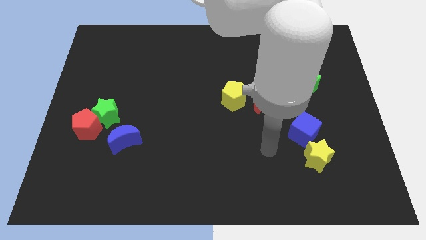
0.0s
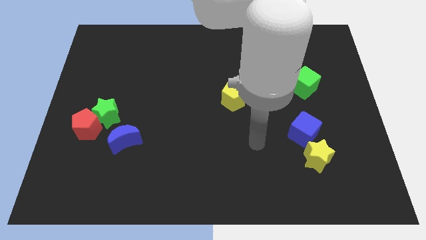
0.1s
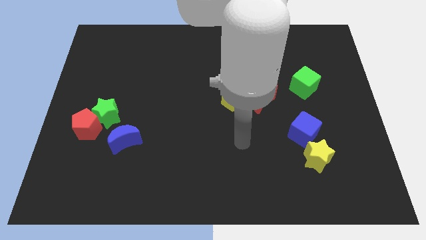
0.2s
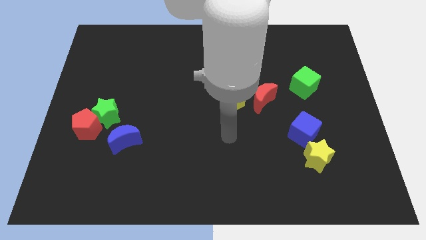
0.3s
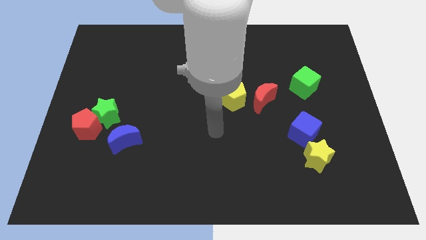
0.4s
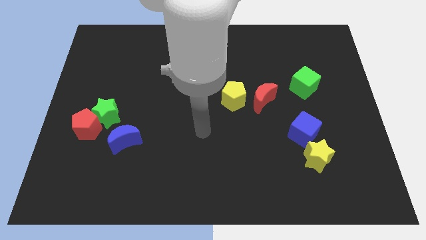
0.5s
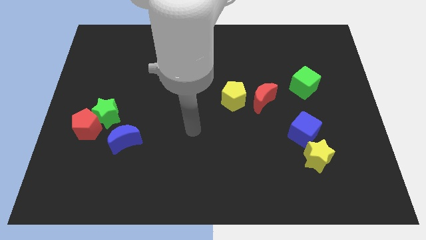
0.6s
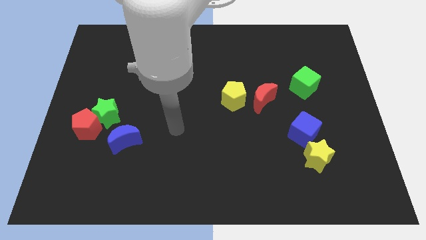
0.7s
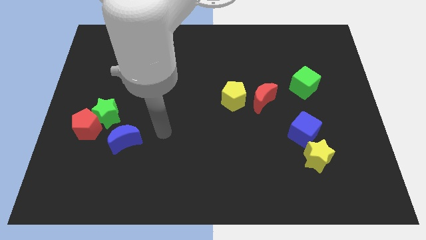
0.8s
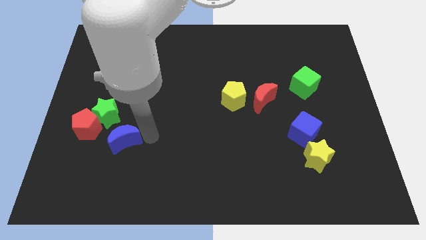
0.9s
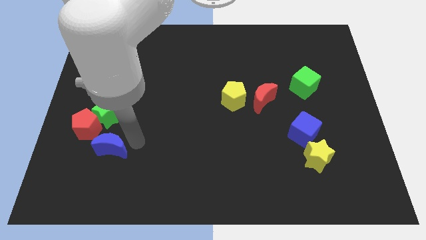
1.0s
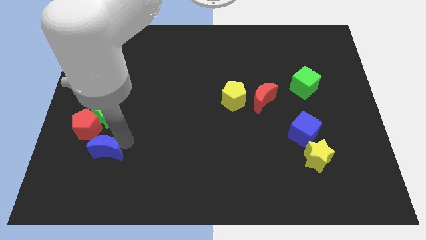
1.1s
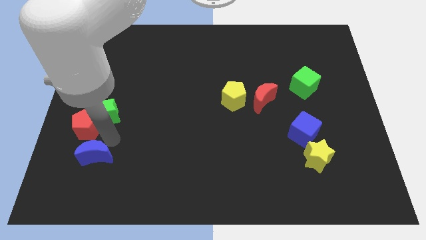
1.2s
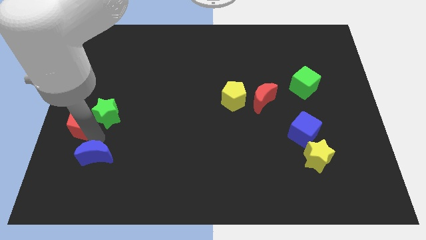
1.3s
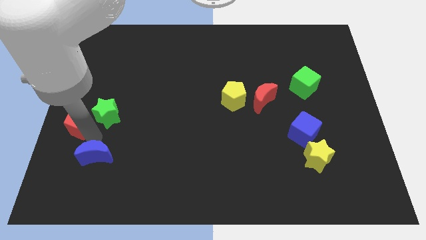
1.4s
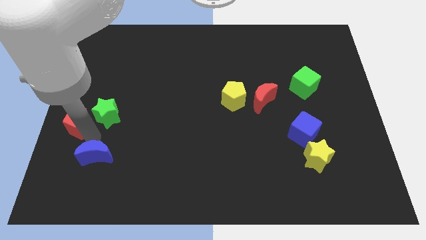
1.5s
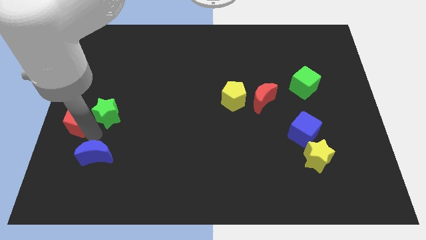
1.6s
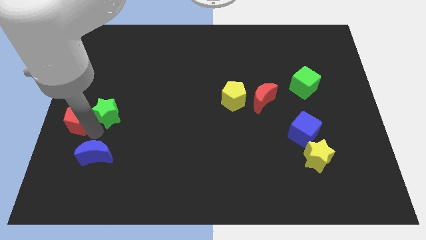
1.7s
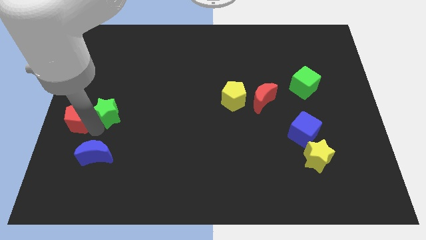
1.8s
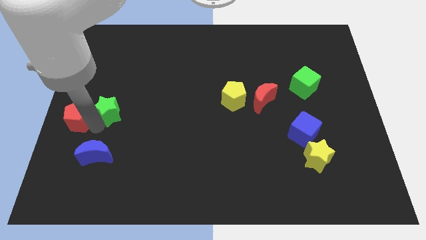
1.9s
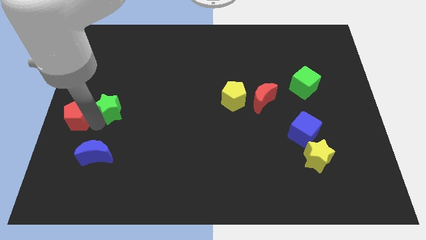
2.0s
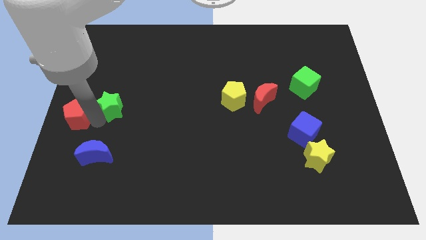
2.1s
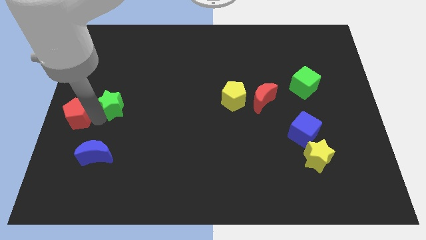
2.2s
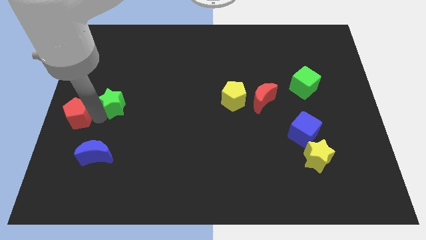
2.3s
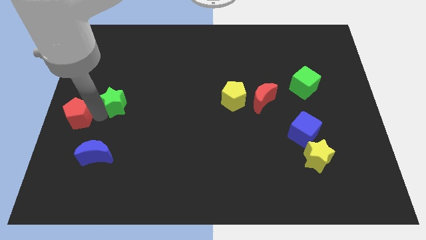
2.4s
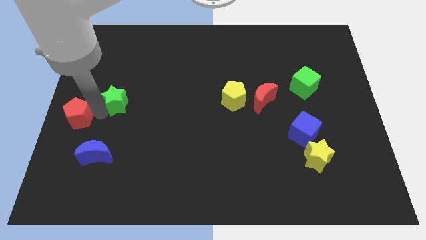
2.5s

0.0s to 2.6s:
move the green star away from the red pentagon and blue moon

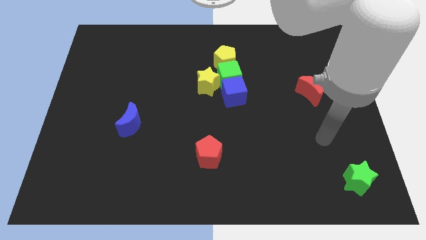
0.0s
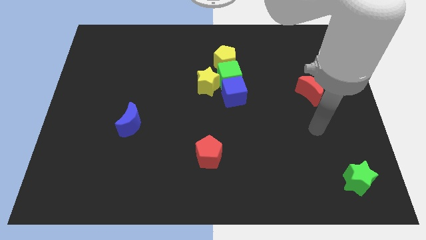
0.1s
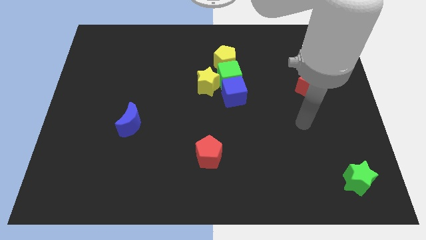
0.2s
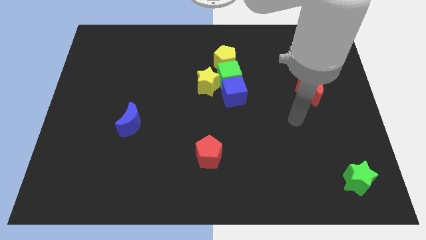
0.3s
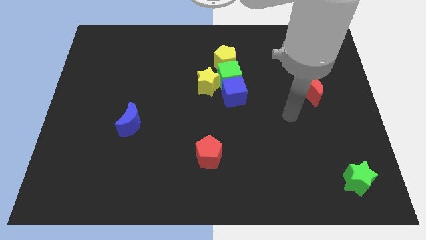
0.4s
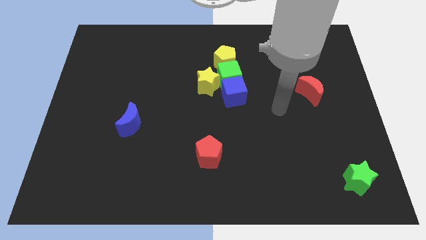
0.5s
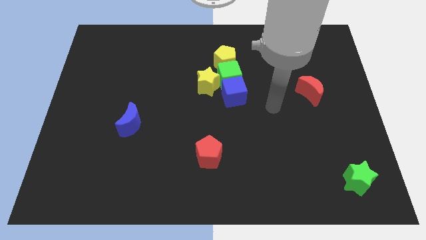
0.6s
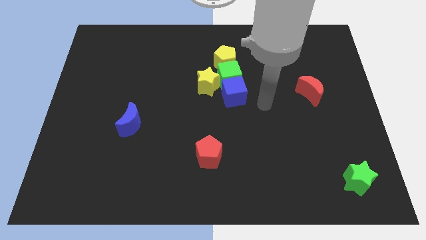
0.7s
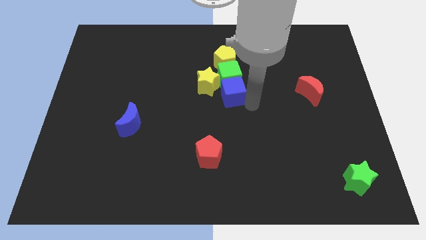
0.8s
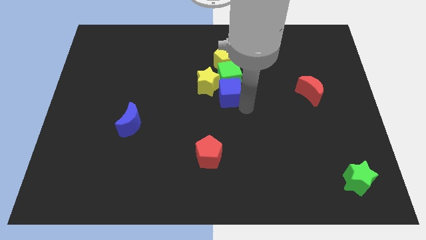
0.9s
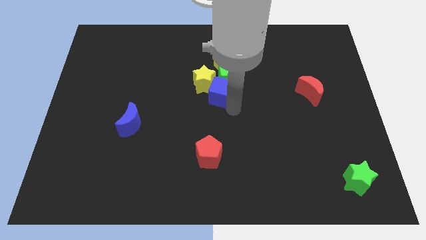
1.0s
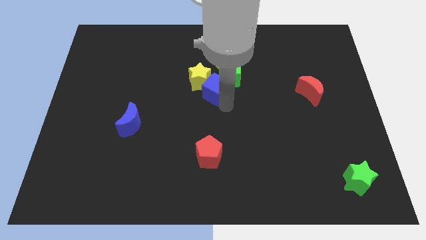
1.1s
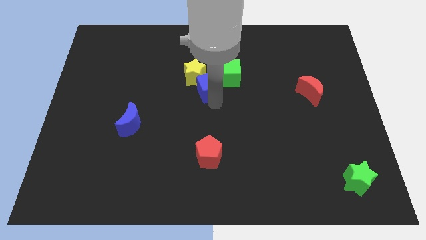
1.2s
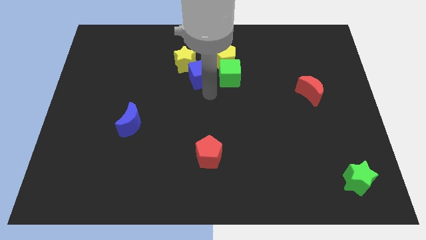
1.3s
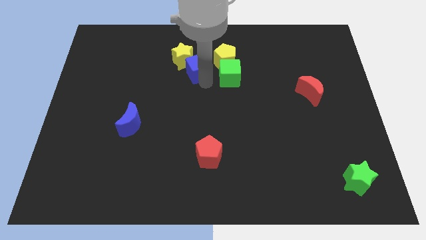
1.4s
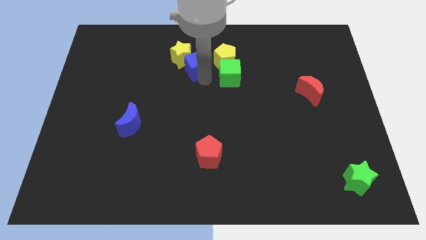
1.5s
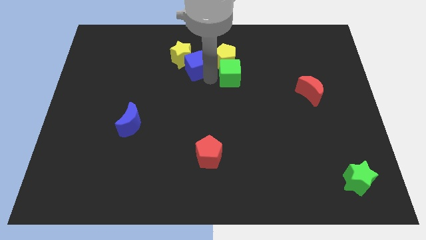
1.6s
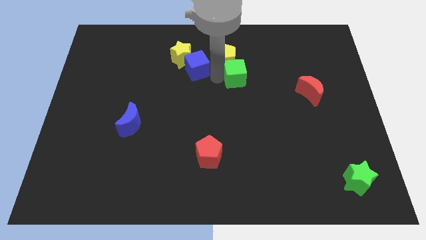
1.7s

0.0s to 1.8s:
move the green cube away from the clump

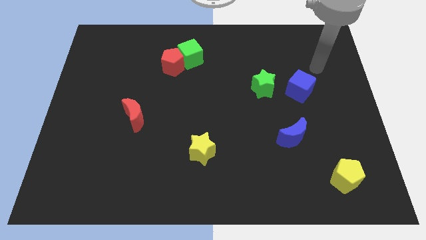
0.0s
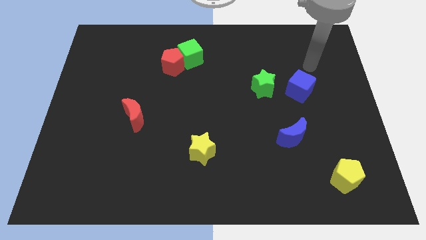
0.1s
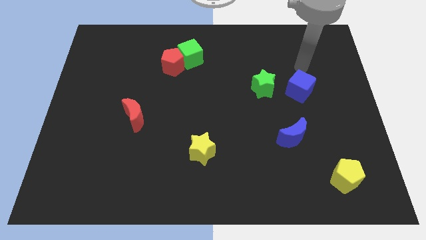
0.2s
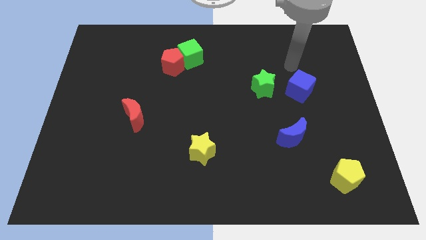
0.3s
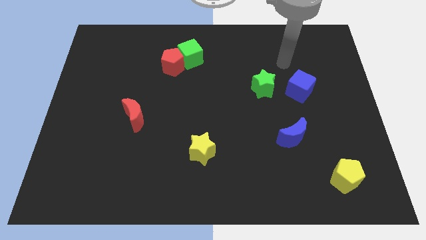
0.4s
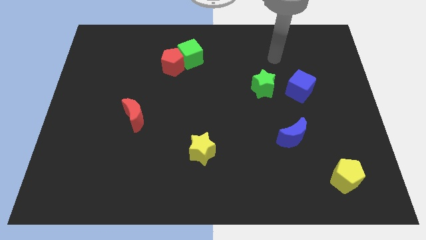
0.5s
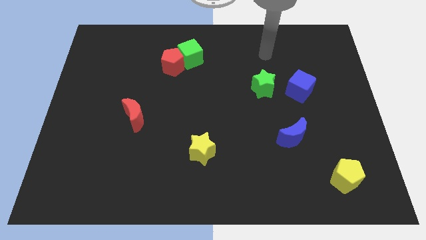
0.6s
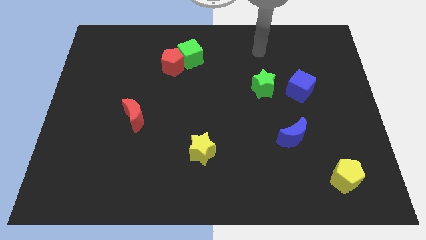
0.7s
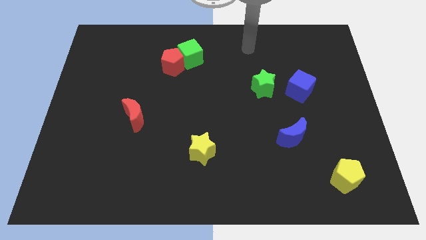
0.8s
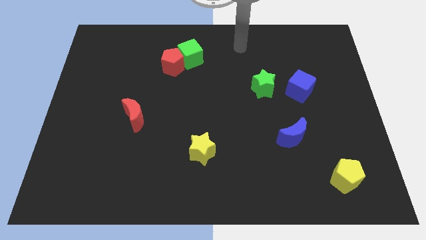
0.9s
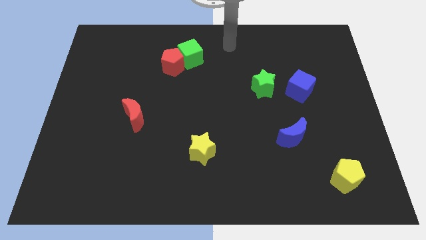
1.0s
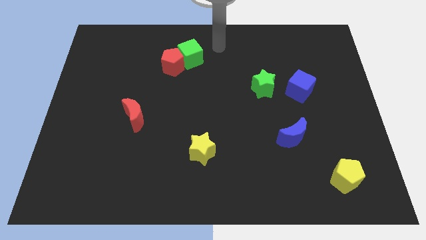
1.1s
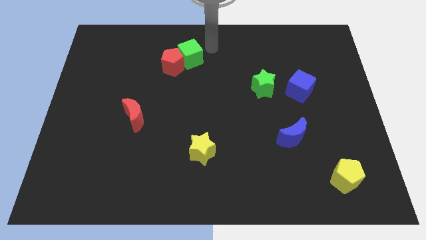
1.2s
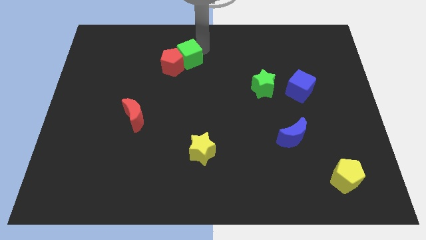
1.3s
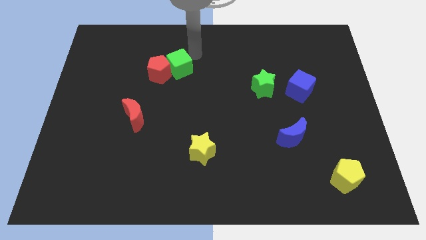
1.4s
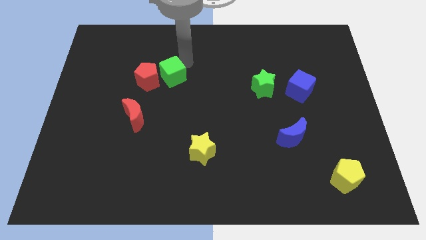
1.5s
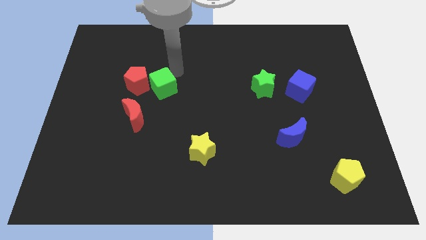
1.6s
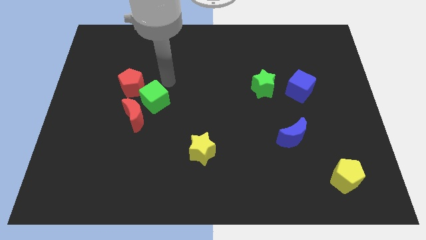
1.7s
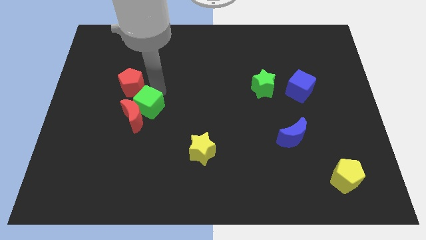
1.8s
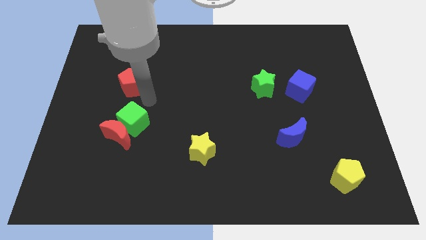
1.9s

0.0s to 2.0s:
move the red pentagon away from the green cube

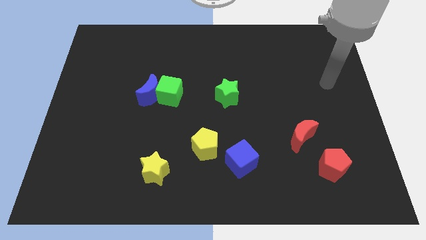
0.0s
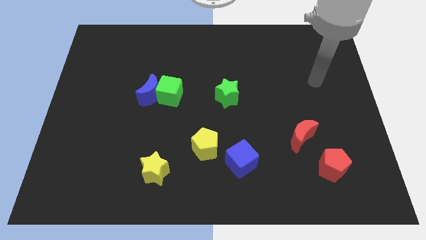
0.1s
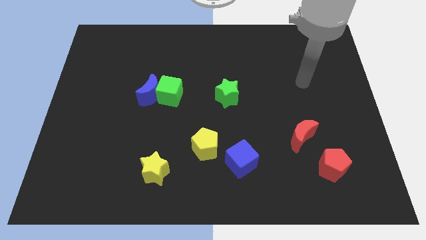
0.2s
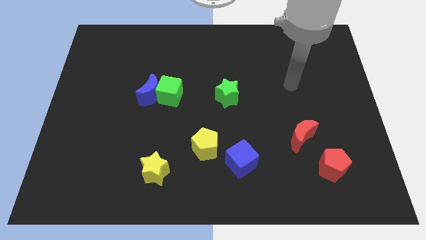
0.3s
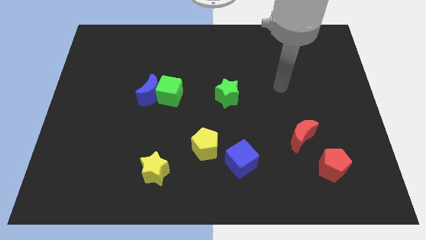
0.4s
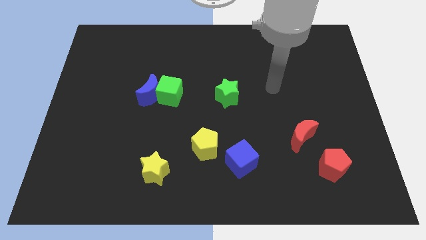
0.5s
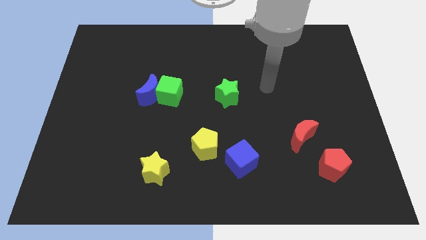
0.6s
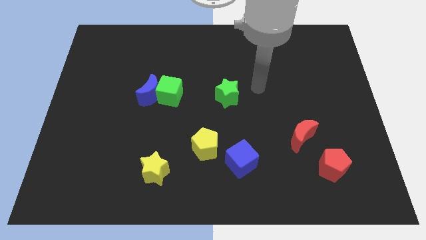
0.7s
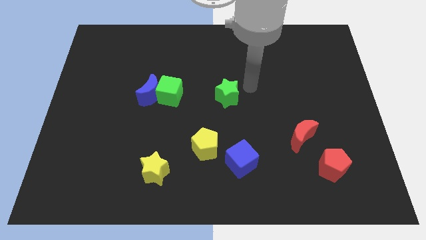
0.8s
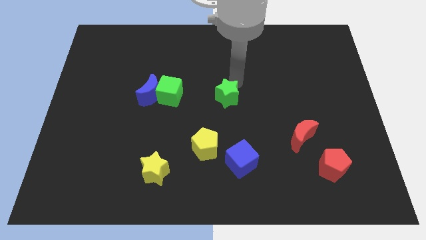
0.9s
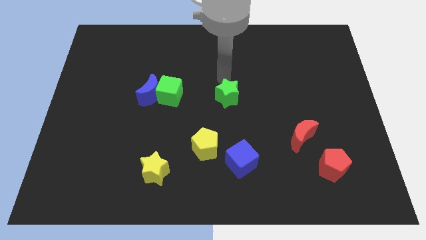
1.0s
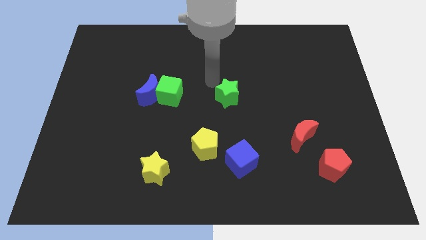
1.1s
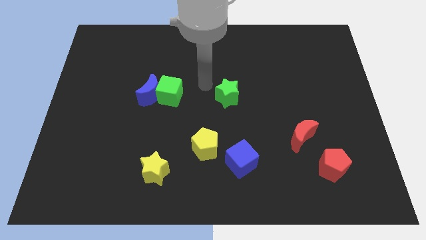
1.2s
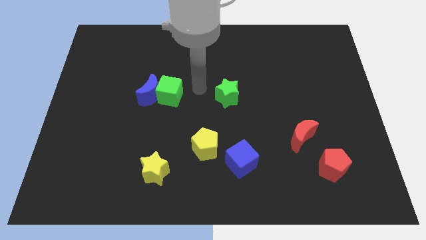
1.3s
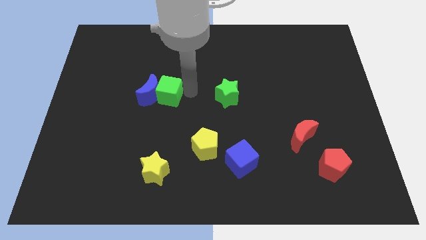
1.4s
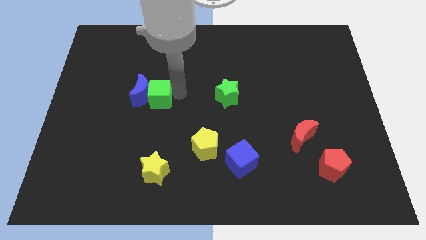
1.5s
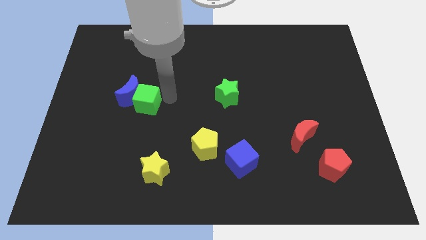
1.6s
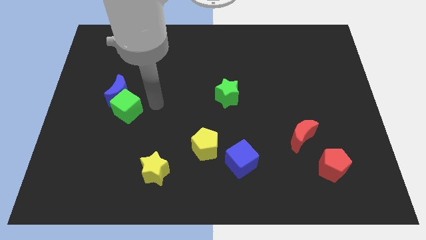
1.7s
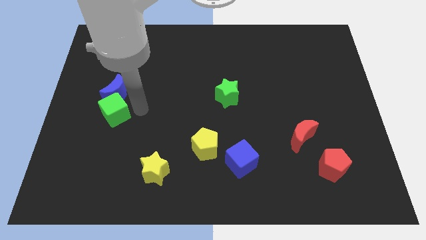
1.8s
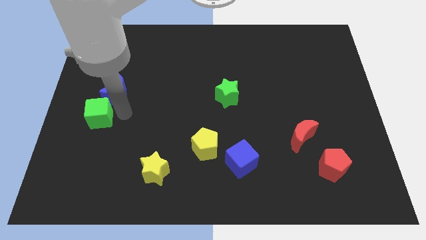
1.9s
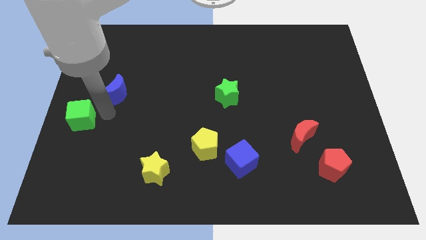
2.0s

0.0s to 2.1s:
separate the blue moon from the green cube

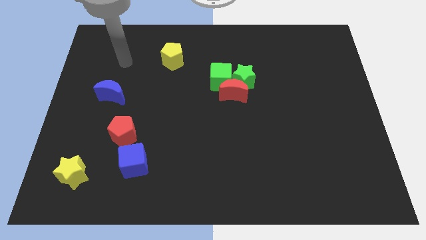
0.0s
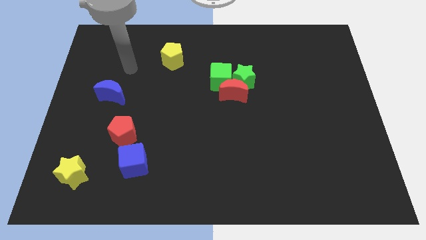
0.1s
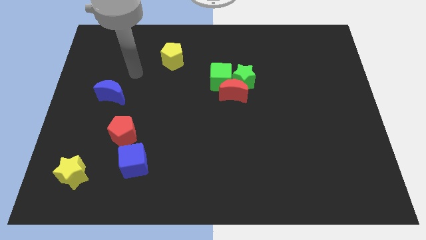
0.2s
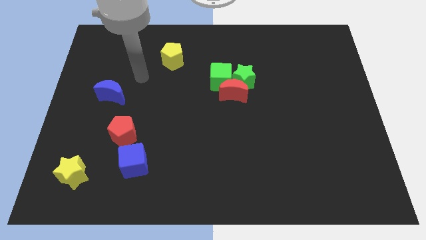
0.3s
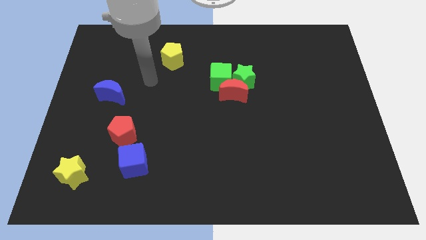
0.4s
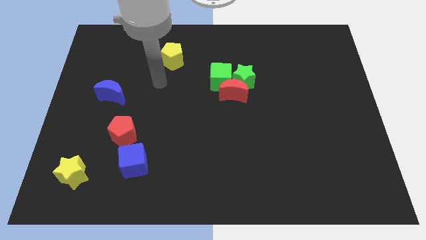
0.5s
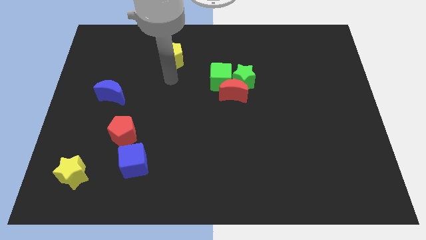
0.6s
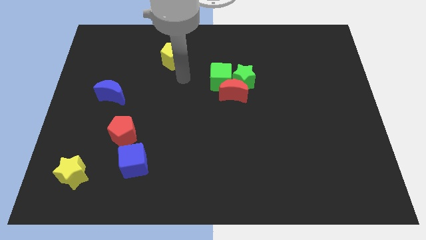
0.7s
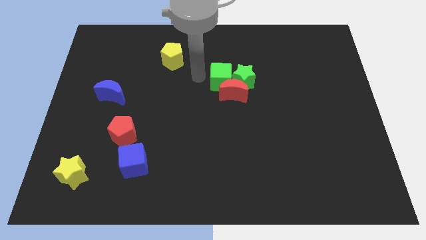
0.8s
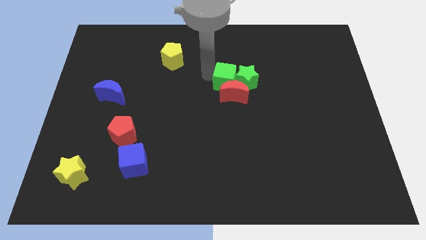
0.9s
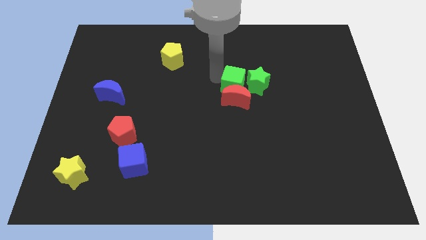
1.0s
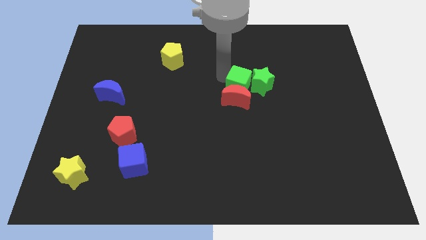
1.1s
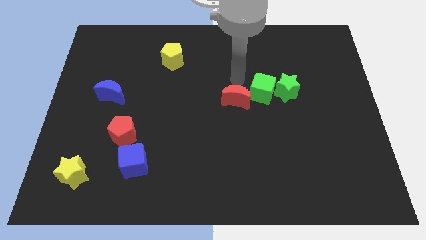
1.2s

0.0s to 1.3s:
separate the red moon from the green star and green cube
